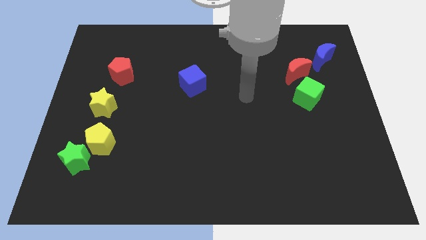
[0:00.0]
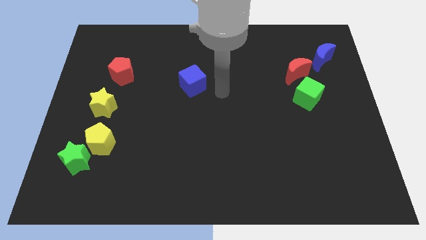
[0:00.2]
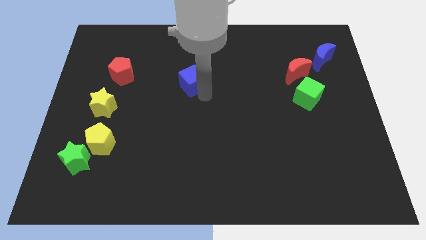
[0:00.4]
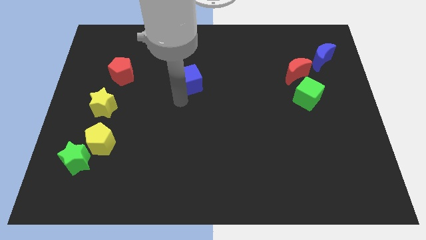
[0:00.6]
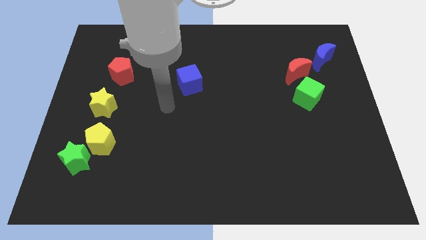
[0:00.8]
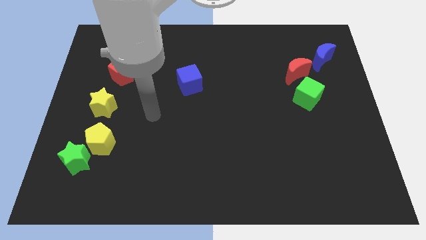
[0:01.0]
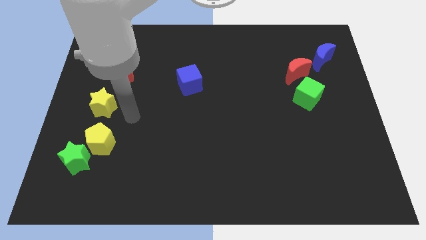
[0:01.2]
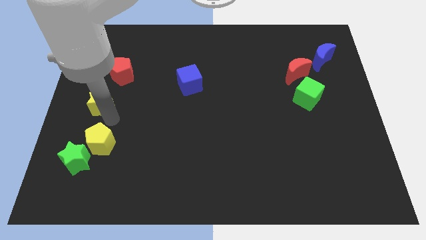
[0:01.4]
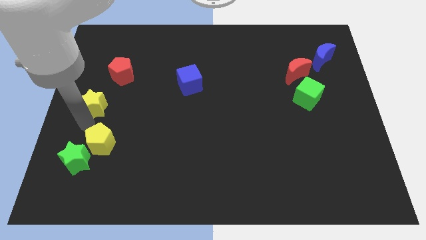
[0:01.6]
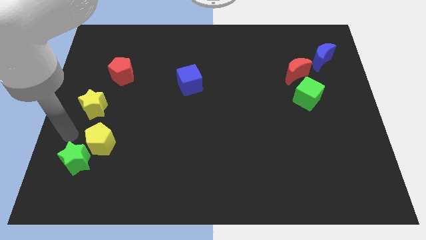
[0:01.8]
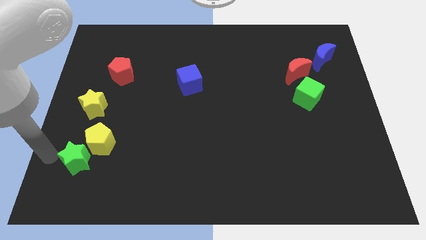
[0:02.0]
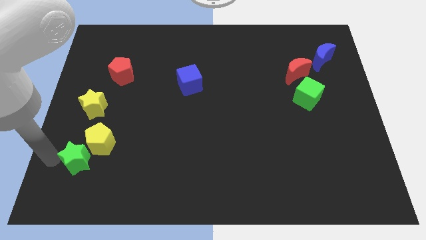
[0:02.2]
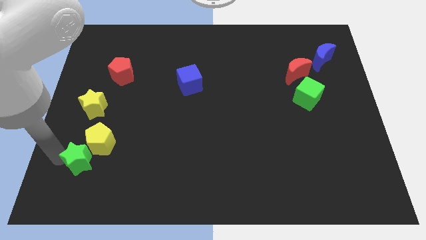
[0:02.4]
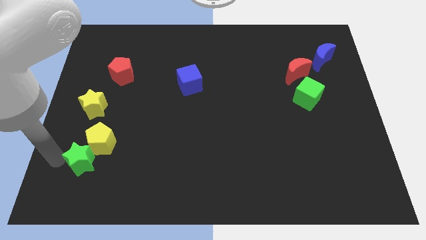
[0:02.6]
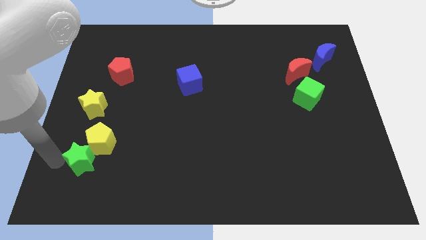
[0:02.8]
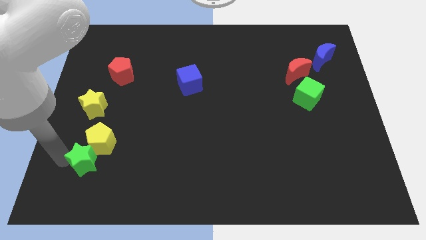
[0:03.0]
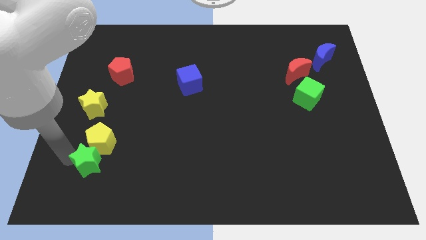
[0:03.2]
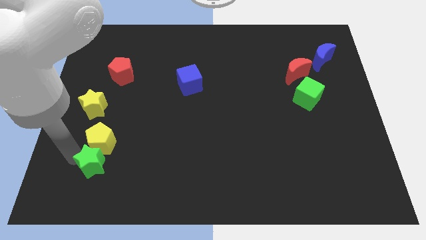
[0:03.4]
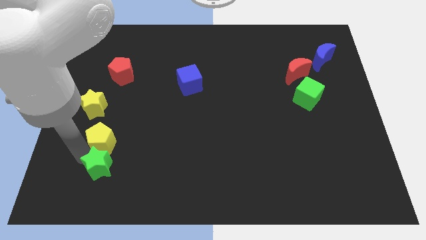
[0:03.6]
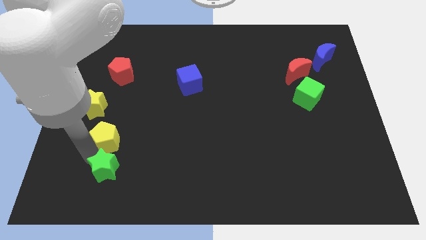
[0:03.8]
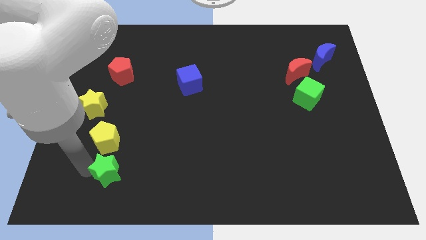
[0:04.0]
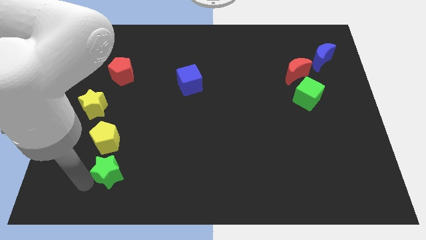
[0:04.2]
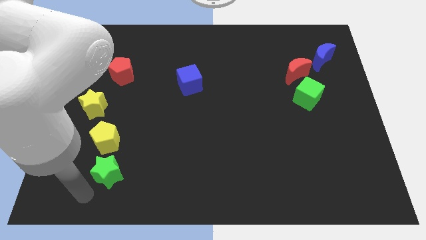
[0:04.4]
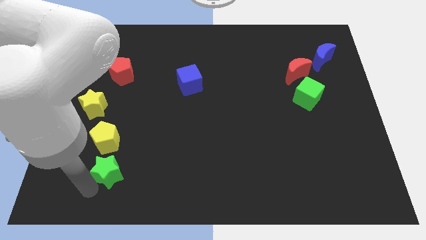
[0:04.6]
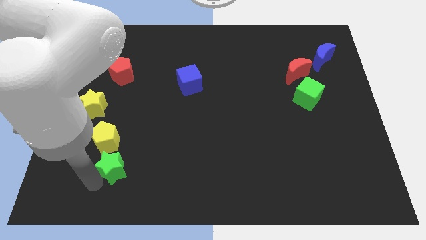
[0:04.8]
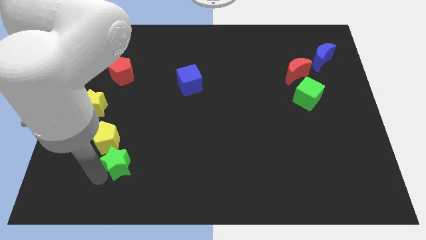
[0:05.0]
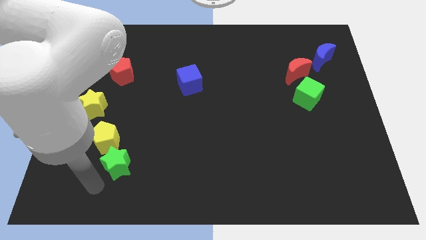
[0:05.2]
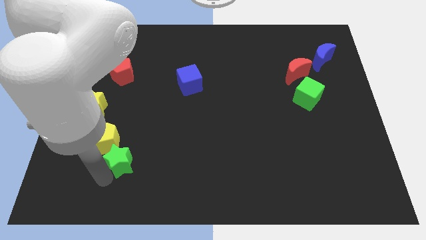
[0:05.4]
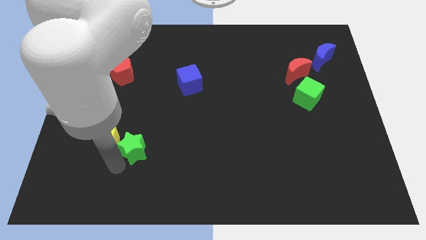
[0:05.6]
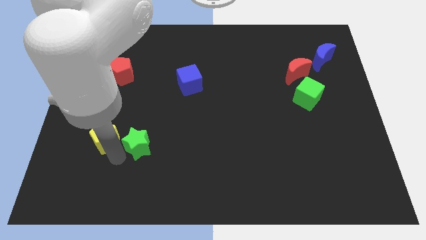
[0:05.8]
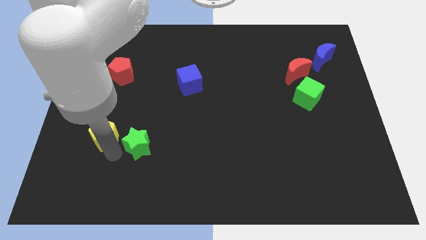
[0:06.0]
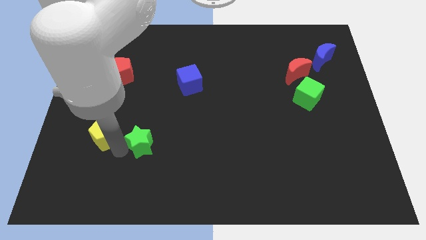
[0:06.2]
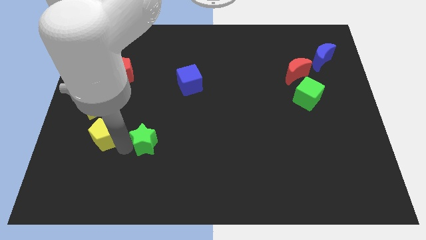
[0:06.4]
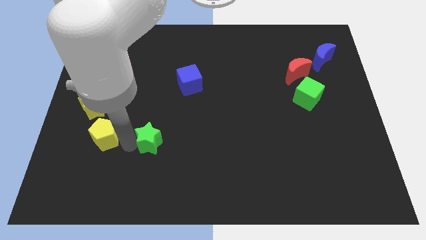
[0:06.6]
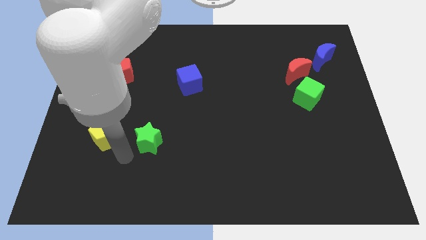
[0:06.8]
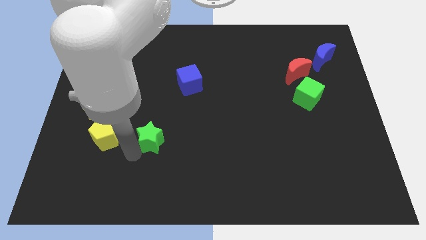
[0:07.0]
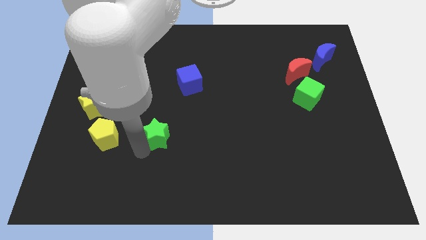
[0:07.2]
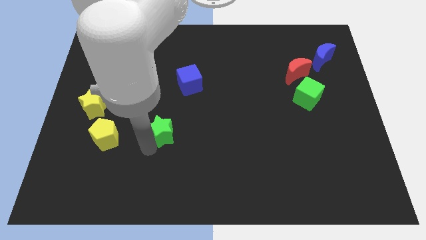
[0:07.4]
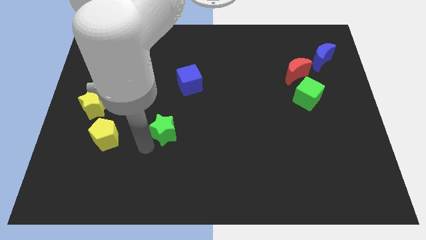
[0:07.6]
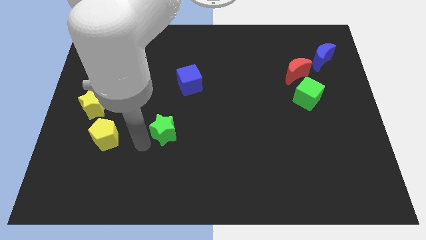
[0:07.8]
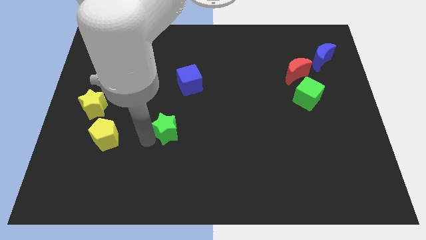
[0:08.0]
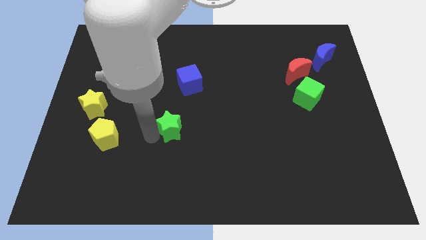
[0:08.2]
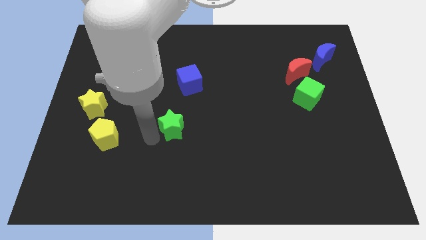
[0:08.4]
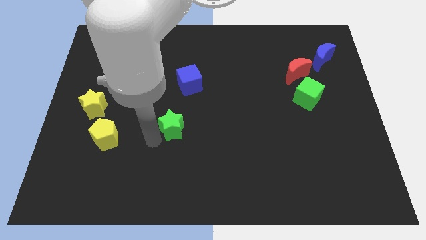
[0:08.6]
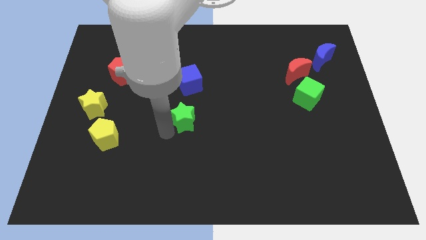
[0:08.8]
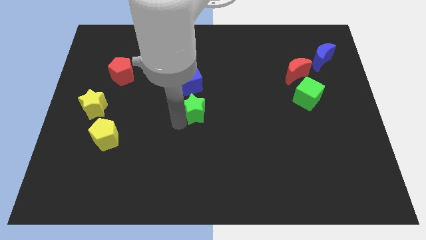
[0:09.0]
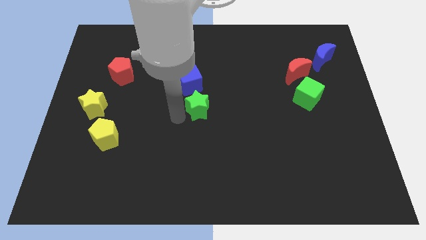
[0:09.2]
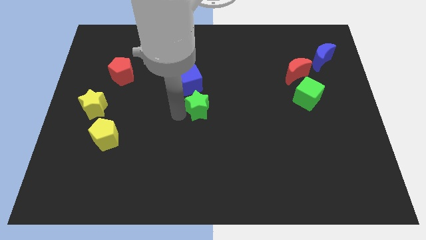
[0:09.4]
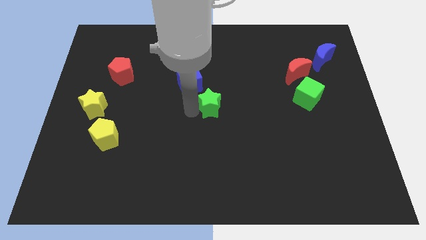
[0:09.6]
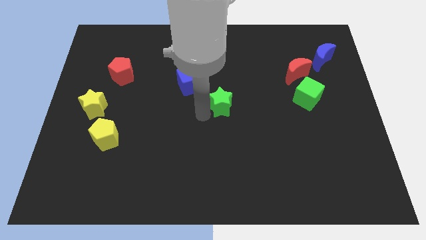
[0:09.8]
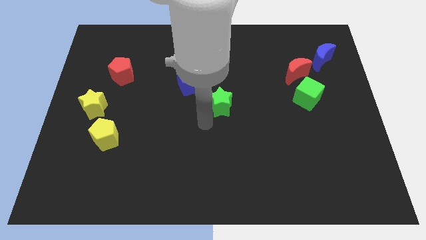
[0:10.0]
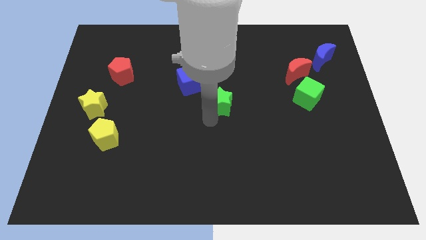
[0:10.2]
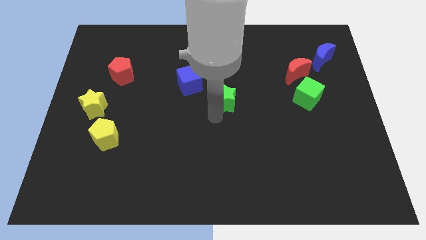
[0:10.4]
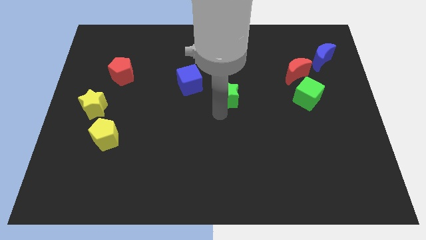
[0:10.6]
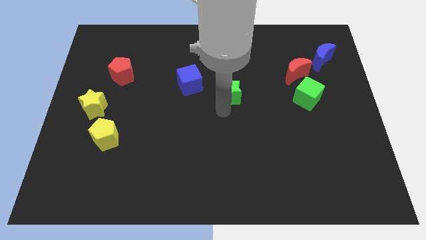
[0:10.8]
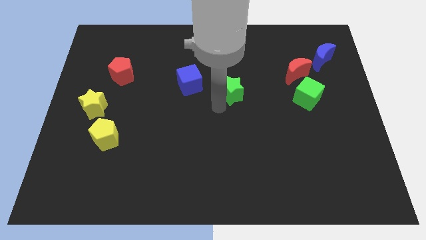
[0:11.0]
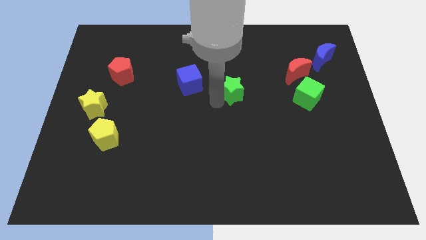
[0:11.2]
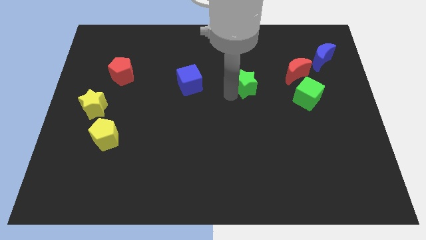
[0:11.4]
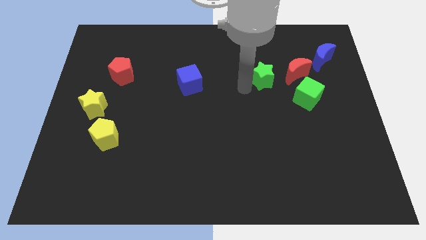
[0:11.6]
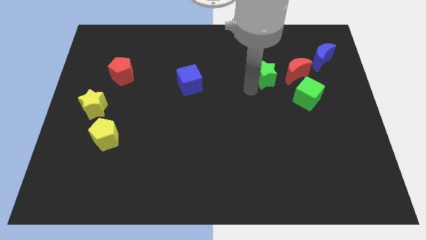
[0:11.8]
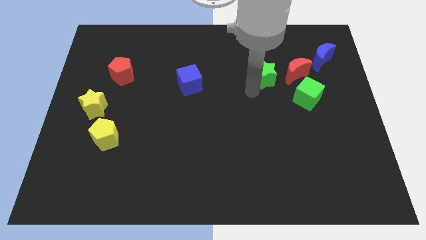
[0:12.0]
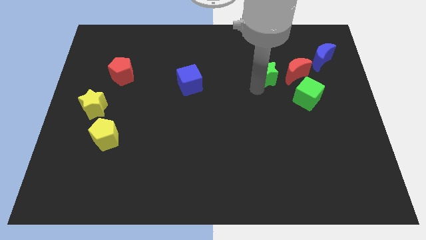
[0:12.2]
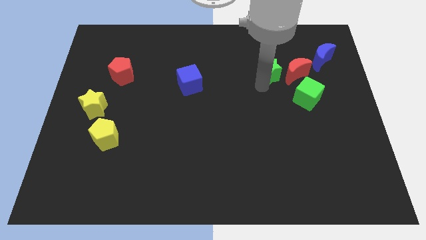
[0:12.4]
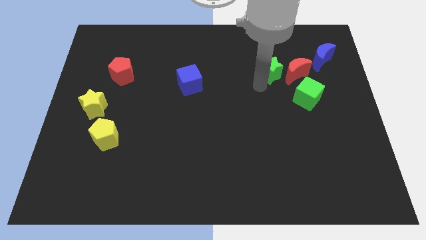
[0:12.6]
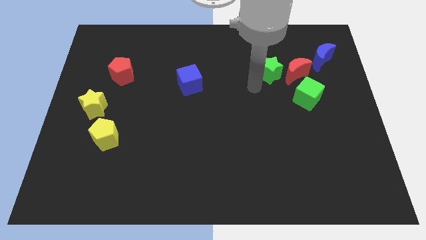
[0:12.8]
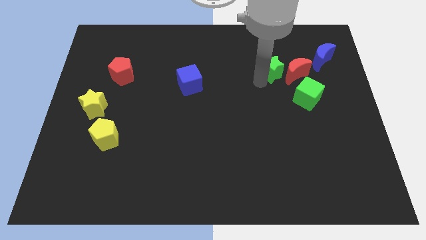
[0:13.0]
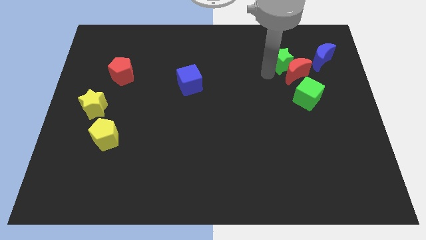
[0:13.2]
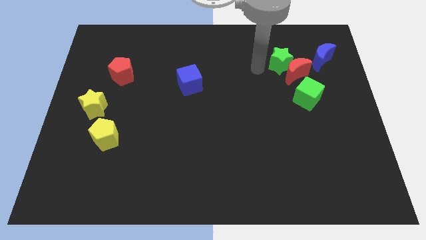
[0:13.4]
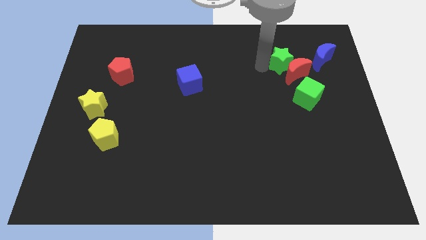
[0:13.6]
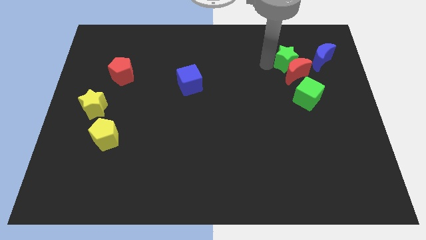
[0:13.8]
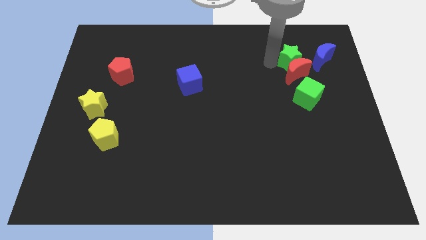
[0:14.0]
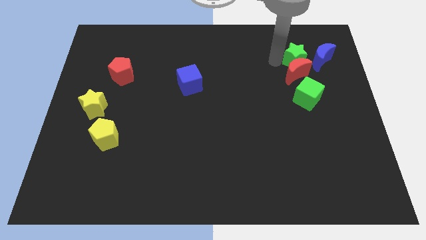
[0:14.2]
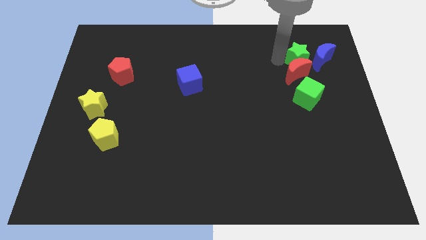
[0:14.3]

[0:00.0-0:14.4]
put the green star next to the blue moon

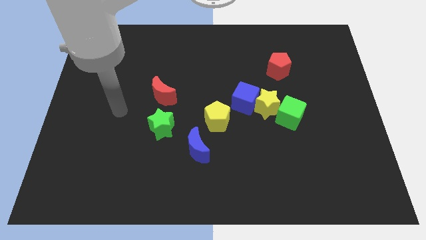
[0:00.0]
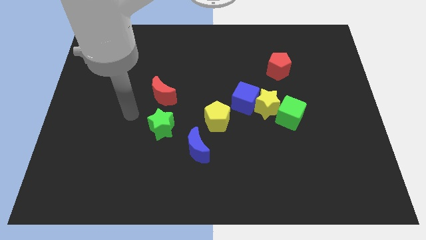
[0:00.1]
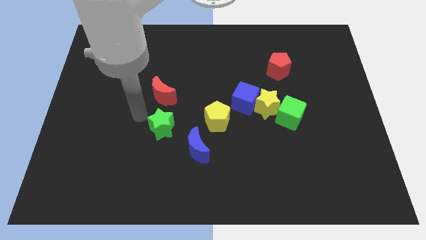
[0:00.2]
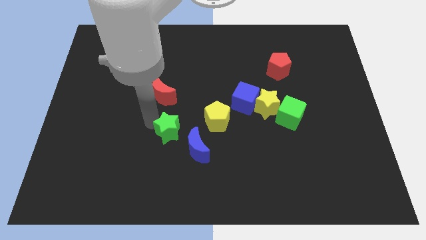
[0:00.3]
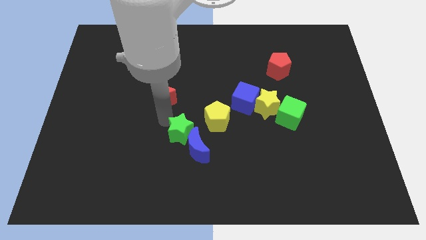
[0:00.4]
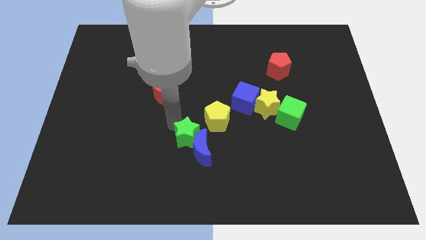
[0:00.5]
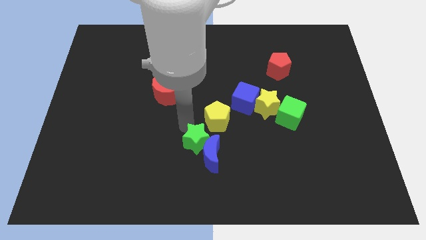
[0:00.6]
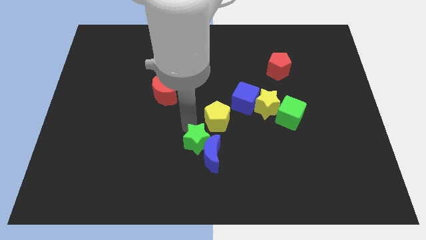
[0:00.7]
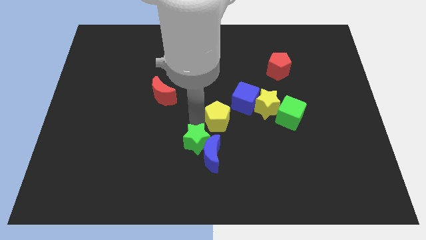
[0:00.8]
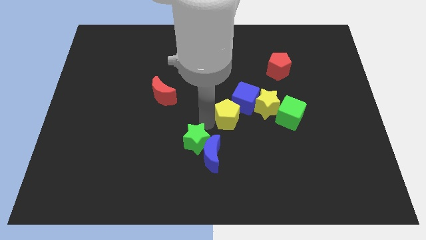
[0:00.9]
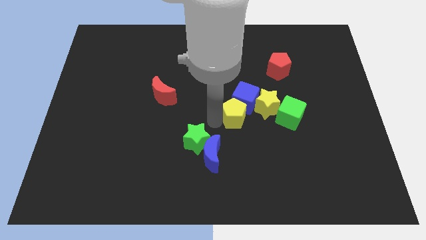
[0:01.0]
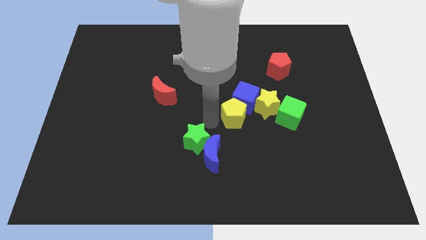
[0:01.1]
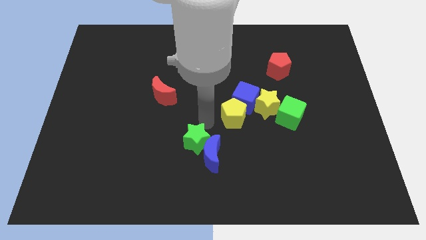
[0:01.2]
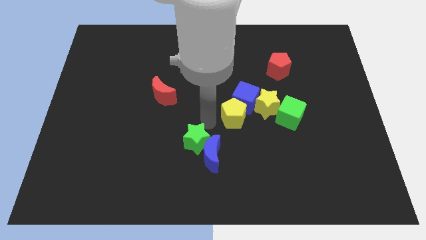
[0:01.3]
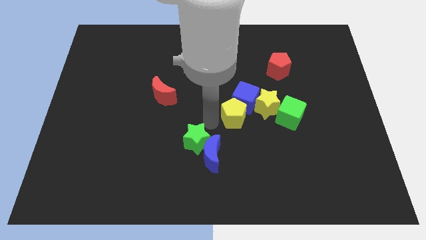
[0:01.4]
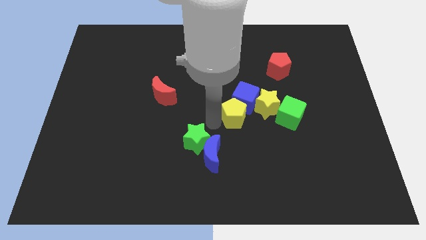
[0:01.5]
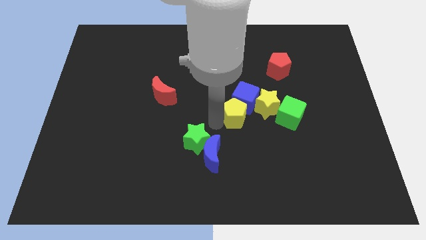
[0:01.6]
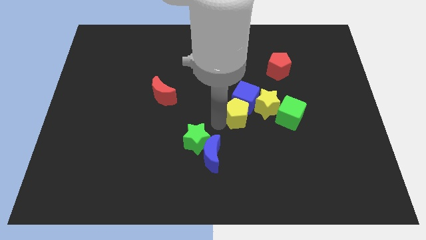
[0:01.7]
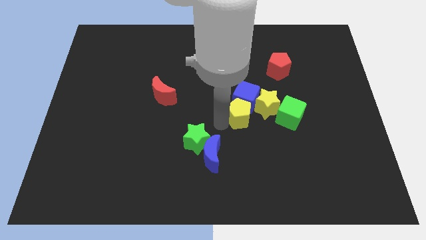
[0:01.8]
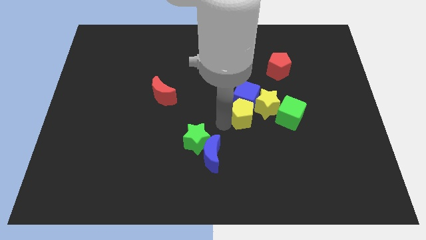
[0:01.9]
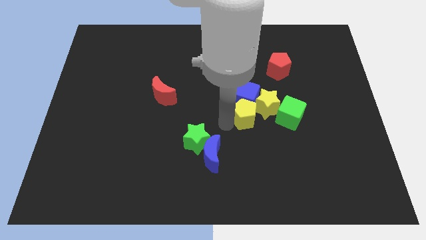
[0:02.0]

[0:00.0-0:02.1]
slide the yellow pentagon towards the yellow star
